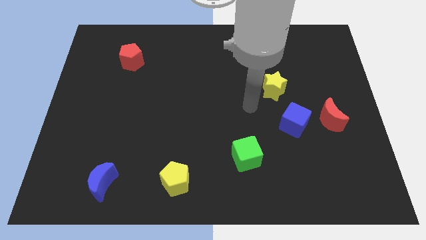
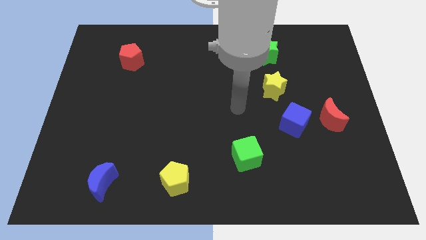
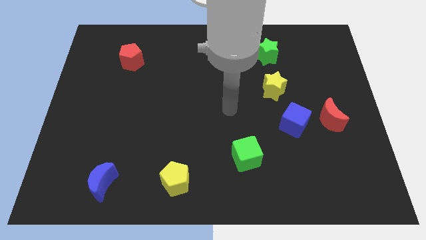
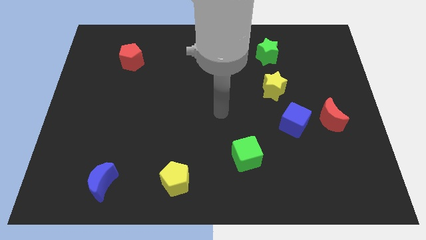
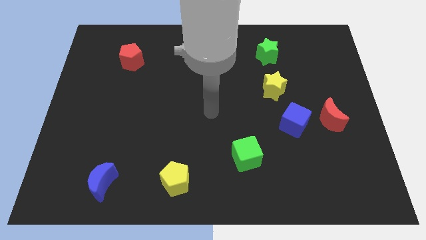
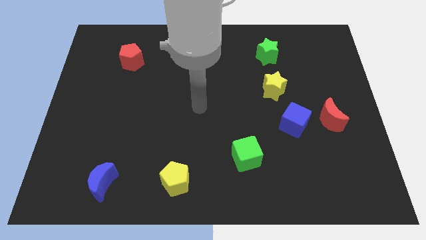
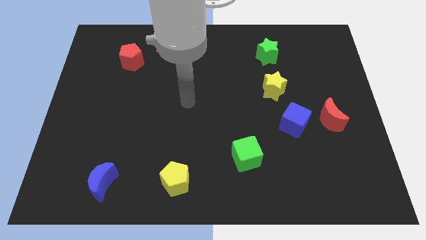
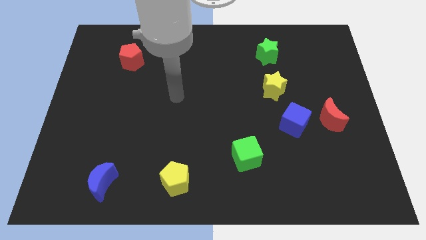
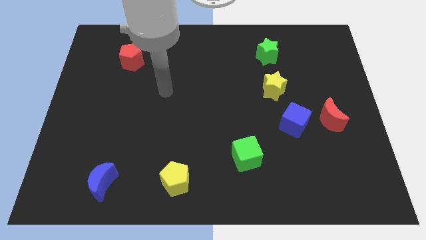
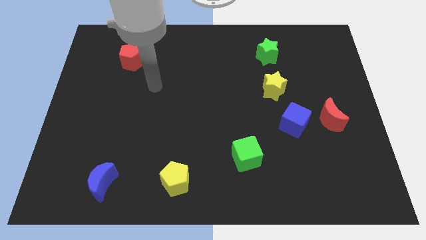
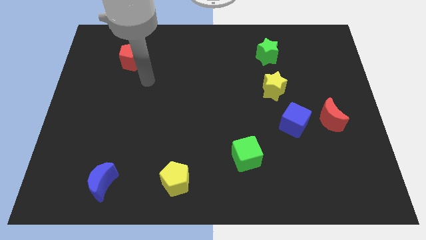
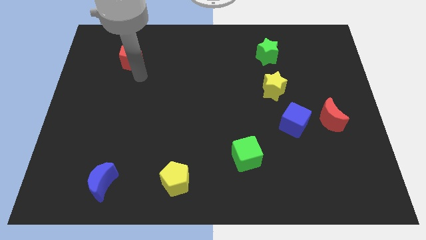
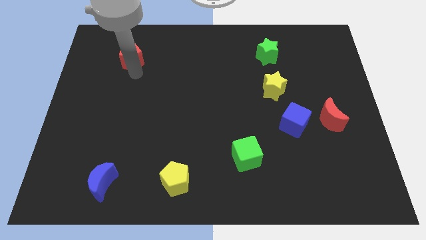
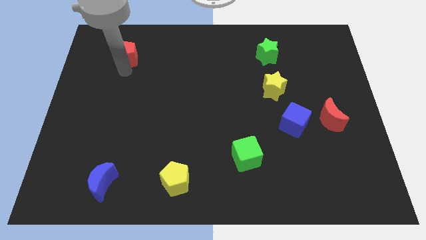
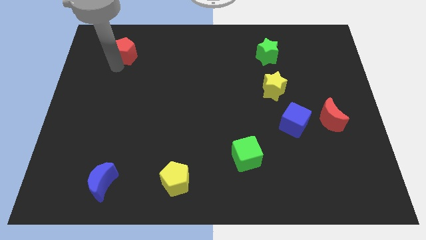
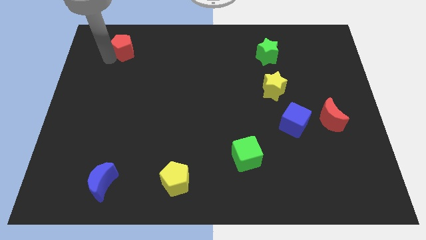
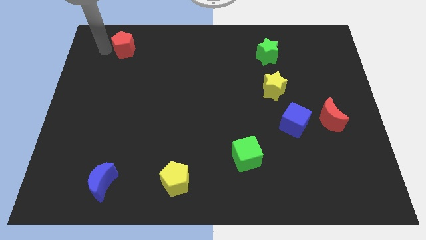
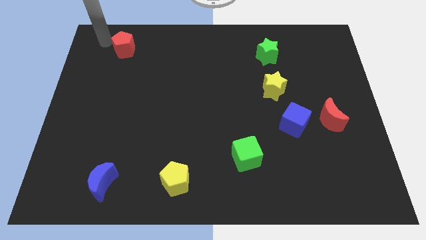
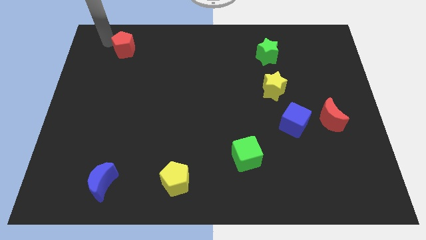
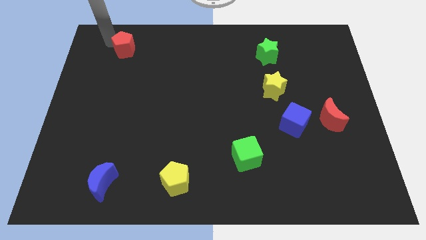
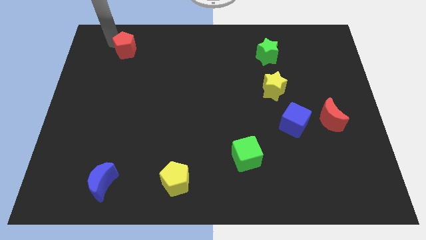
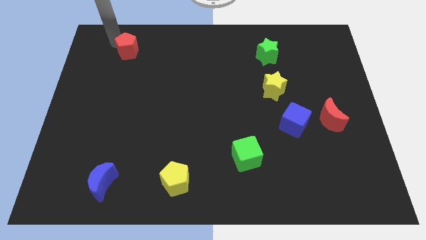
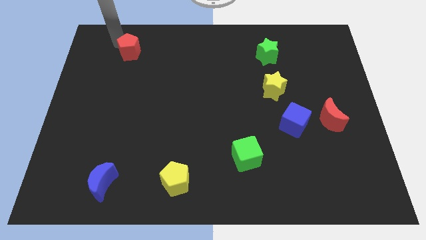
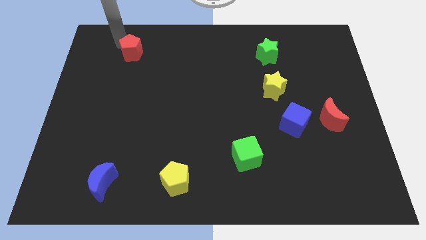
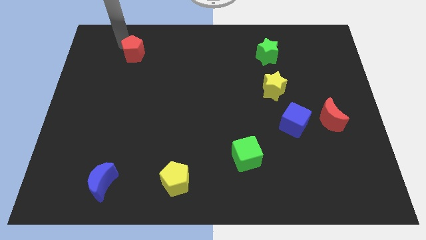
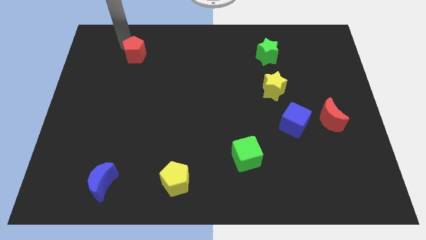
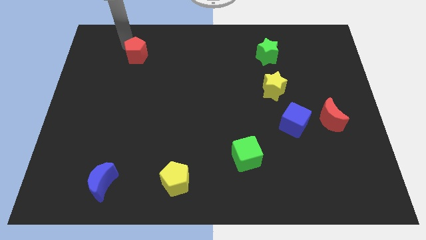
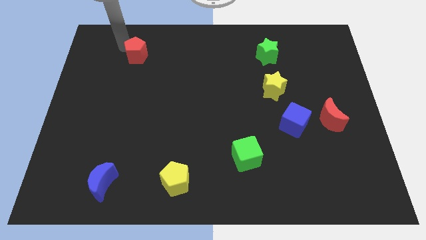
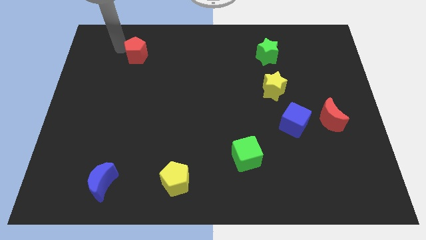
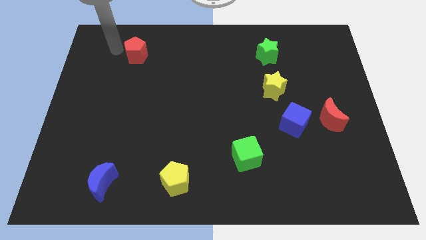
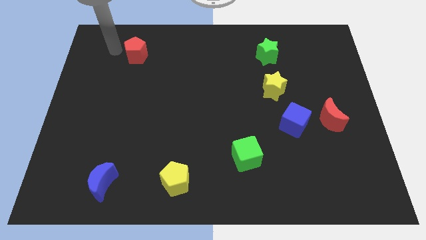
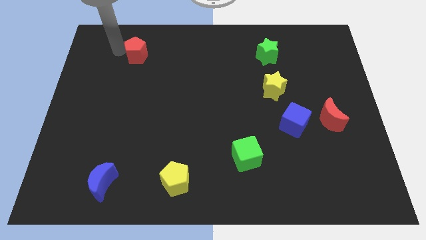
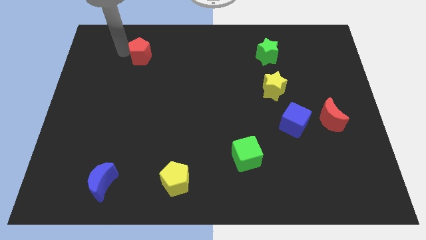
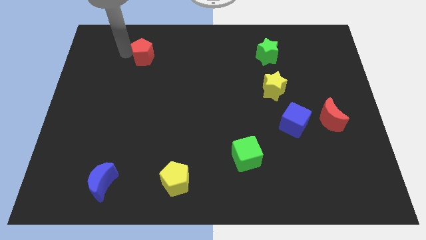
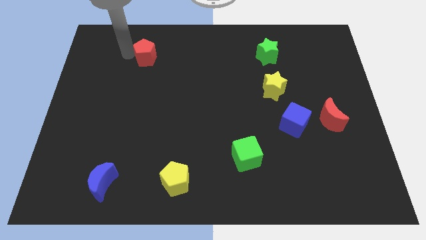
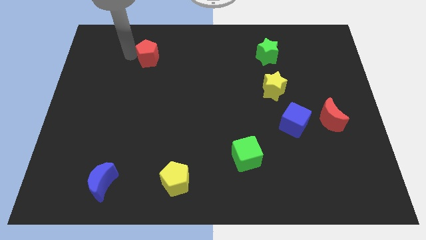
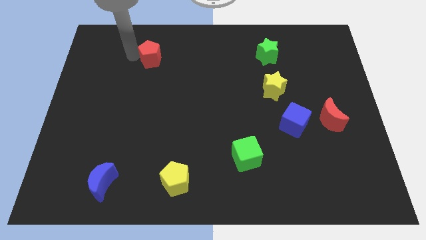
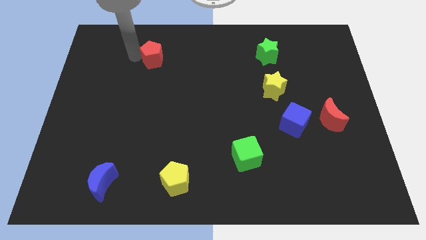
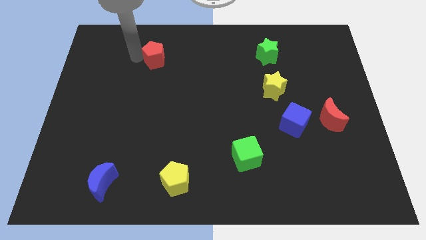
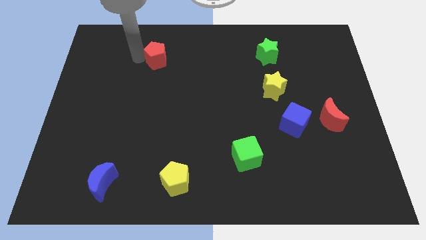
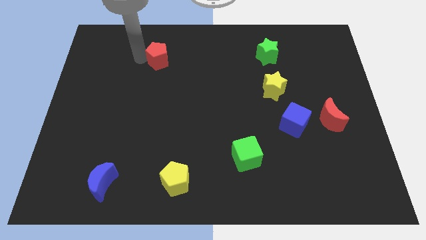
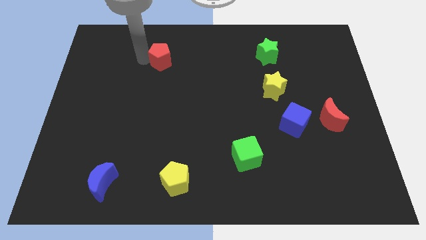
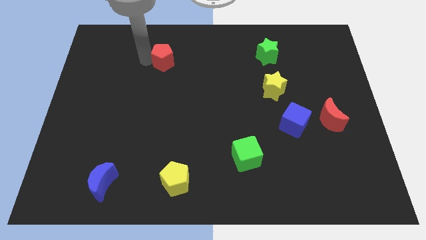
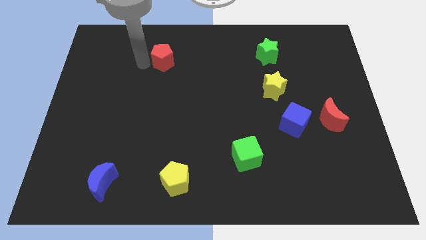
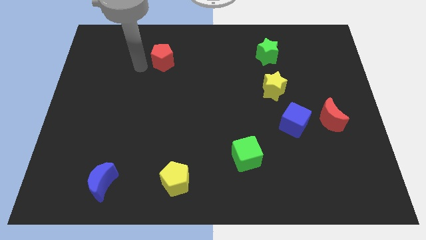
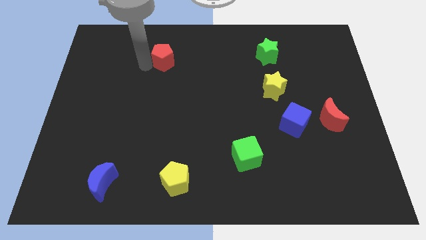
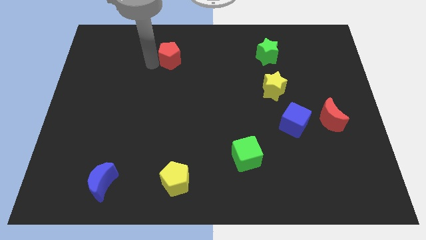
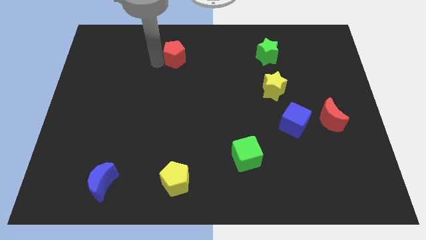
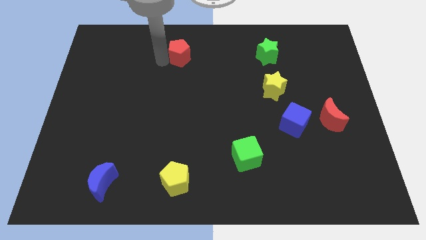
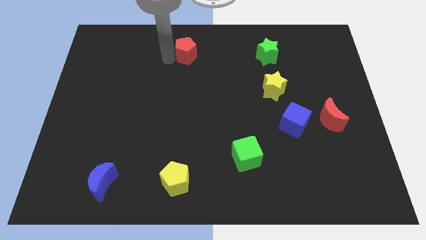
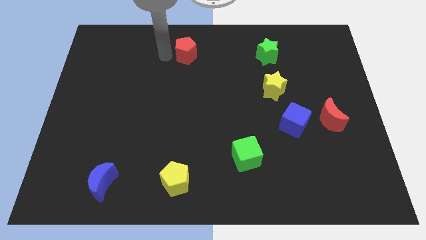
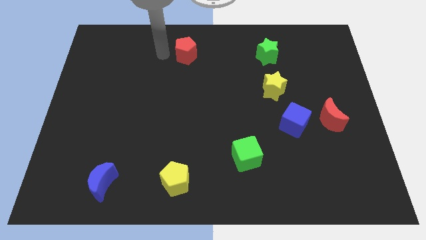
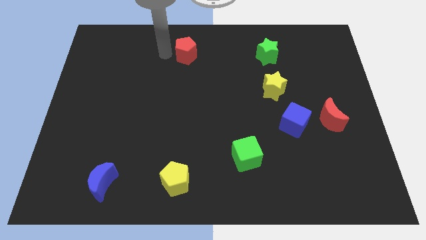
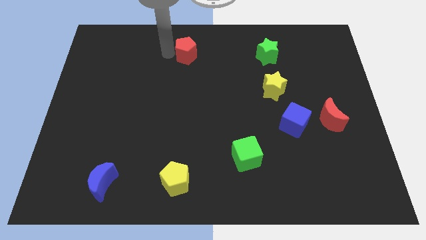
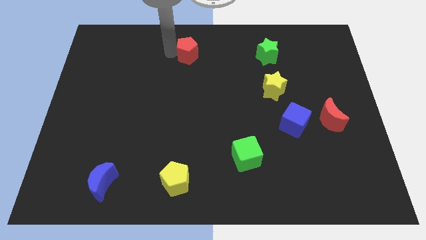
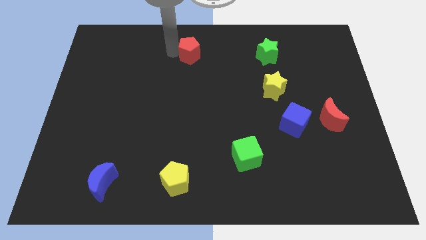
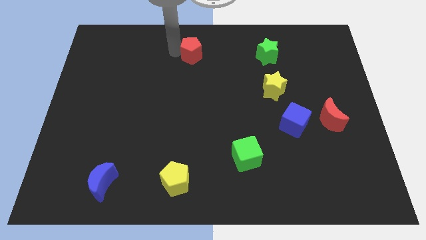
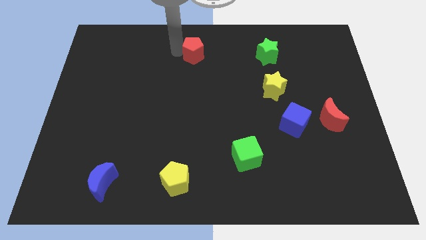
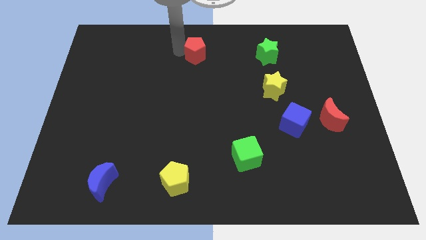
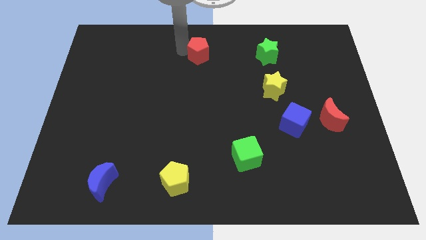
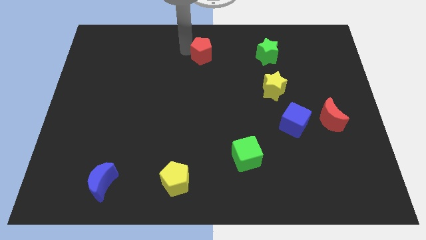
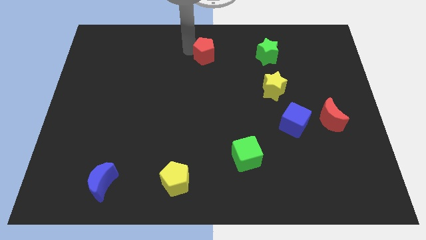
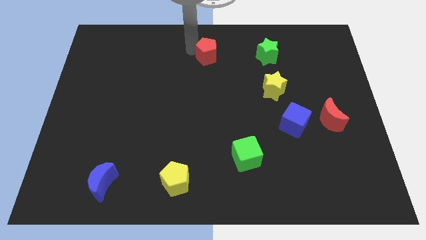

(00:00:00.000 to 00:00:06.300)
push the red pentagon to the left of the green star

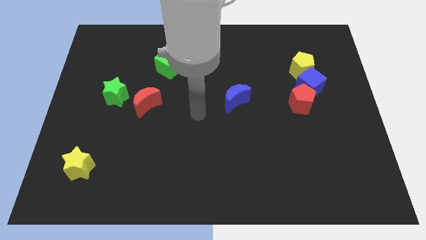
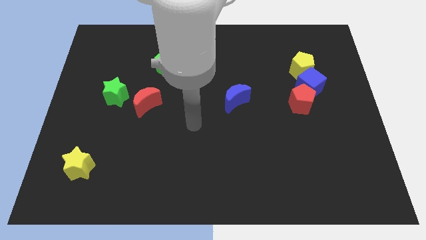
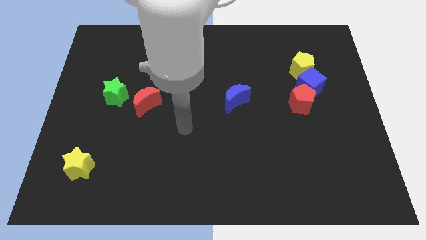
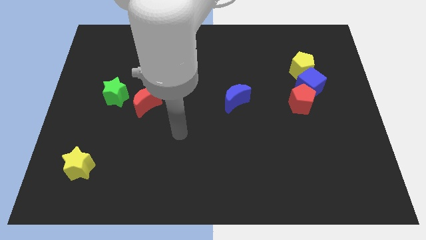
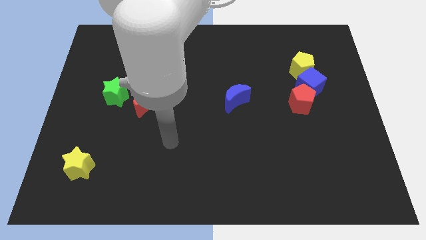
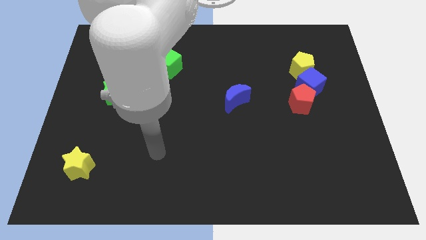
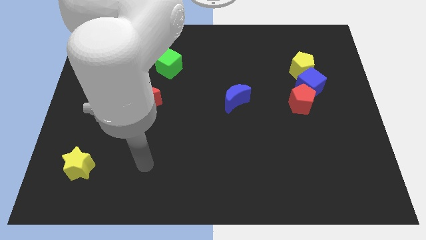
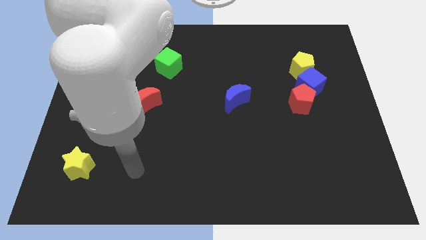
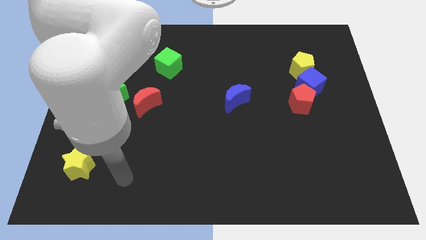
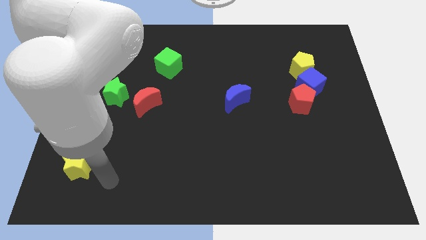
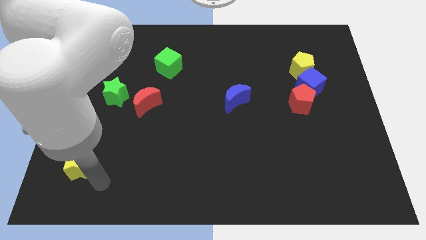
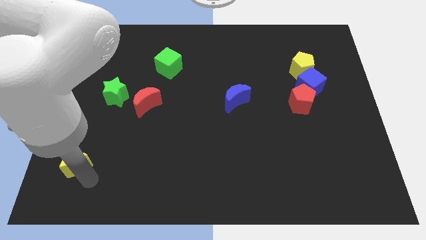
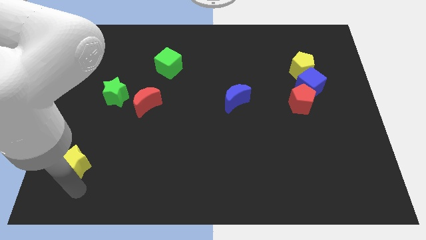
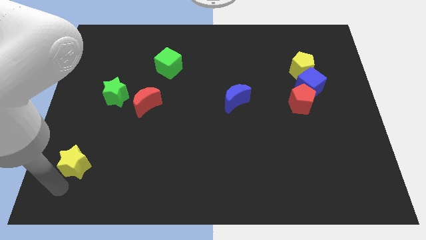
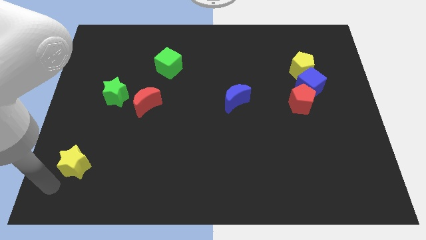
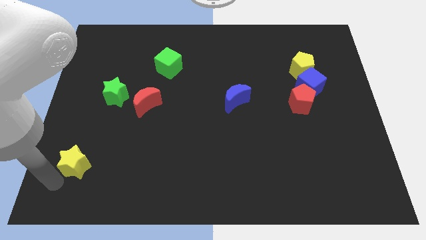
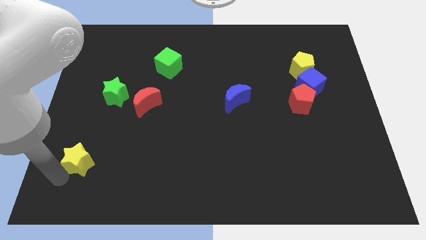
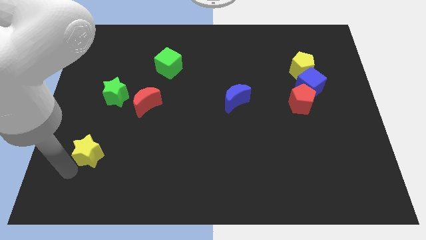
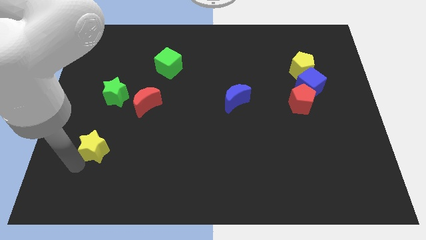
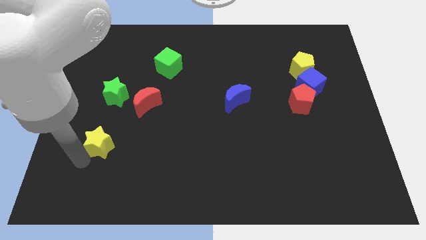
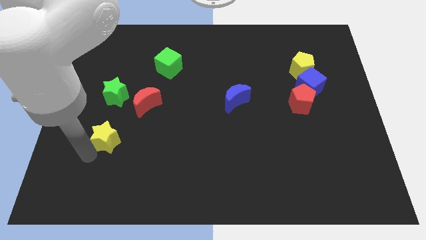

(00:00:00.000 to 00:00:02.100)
slide the yellow star to the bottom left of the red moon
